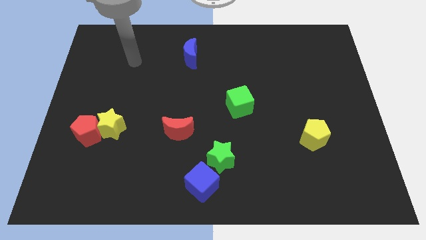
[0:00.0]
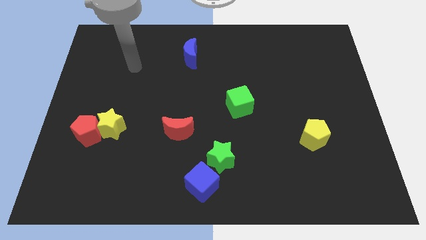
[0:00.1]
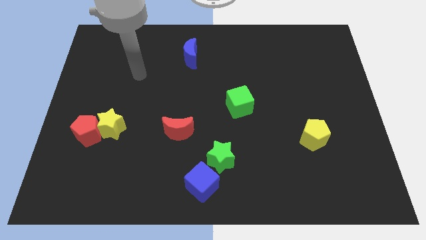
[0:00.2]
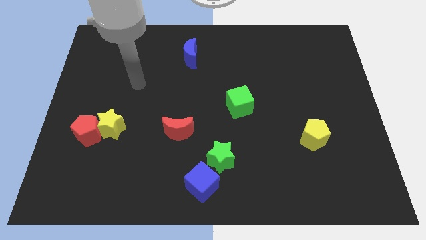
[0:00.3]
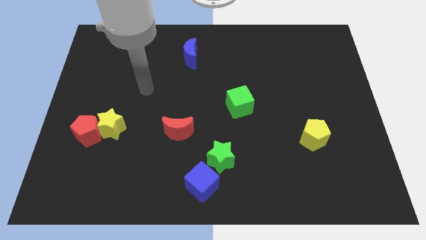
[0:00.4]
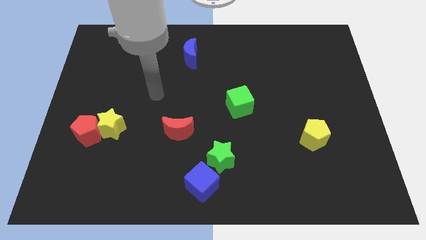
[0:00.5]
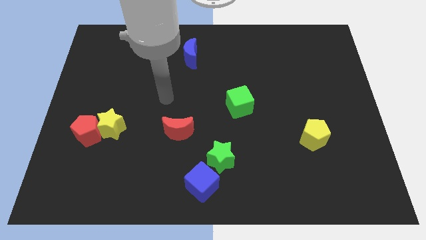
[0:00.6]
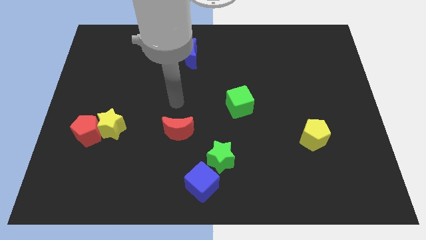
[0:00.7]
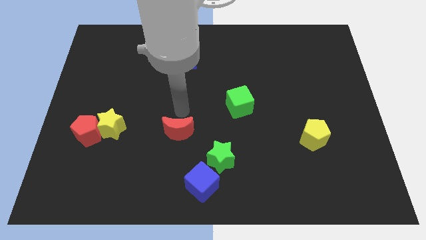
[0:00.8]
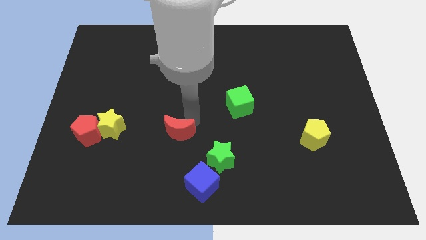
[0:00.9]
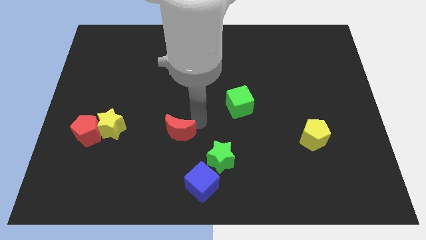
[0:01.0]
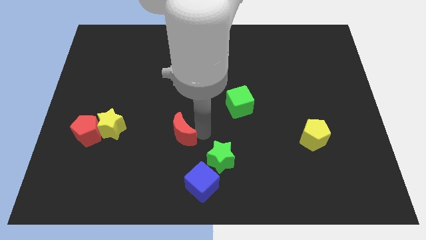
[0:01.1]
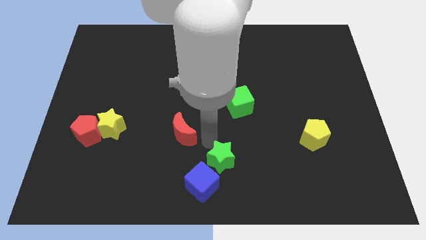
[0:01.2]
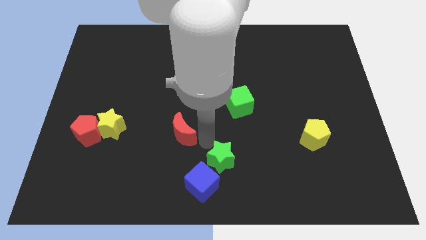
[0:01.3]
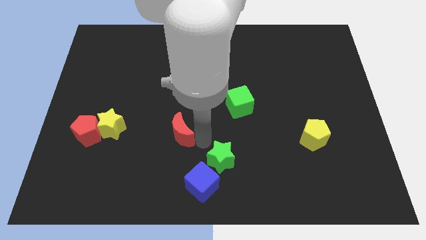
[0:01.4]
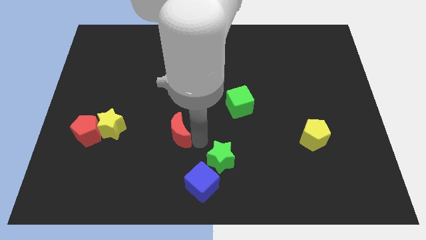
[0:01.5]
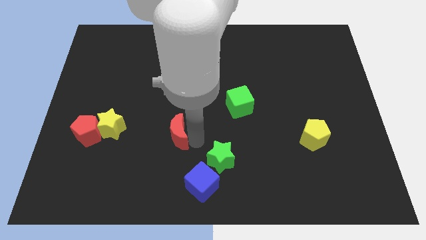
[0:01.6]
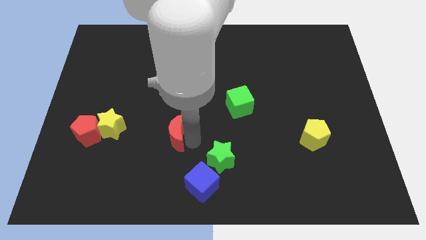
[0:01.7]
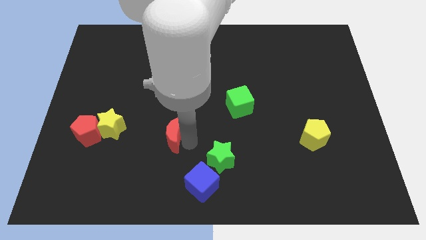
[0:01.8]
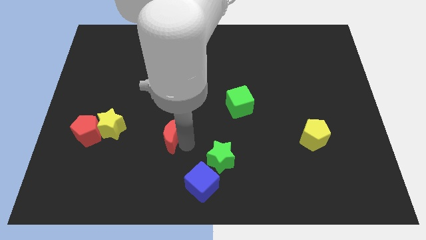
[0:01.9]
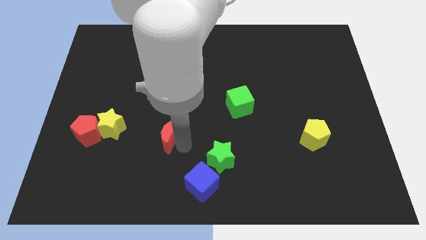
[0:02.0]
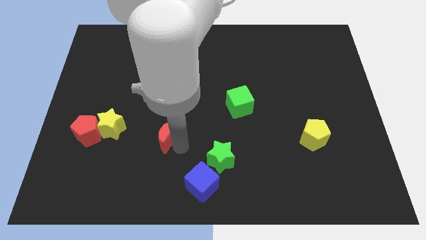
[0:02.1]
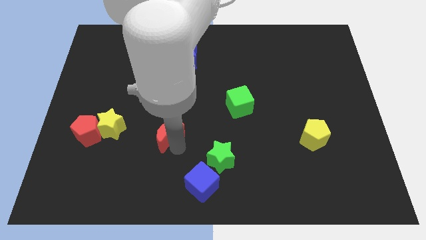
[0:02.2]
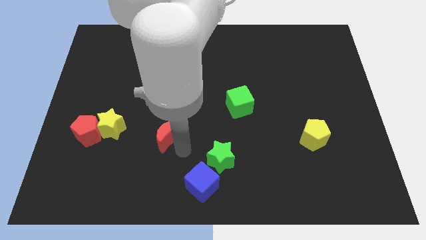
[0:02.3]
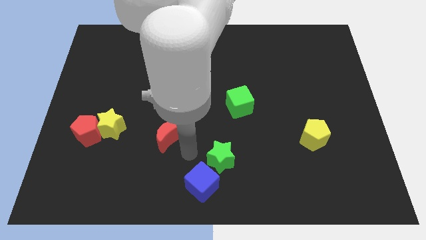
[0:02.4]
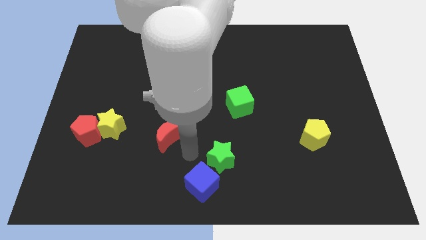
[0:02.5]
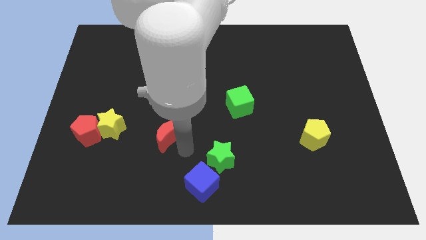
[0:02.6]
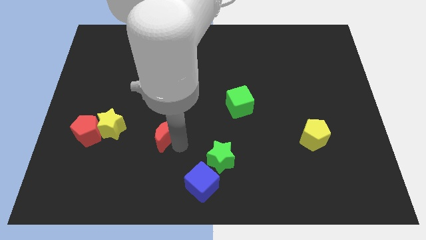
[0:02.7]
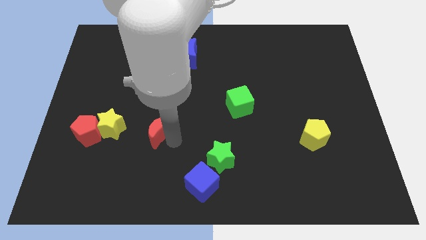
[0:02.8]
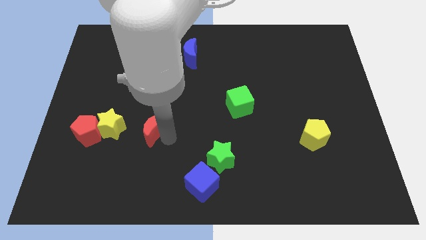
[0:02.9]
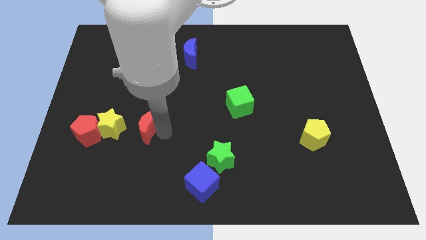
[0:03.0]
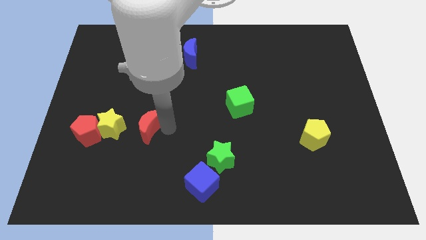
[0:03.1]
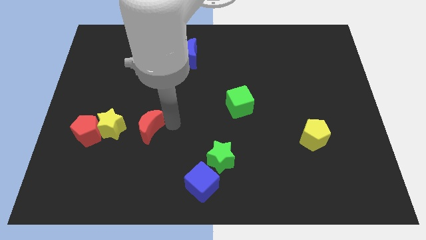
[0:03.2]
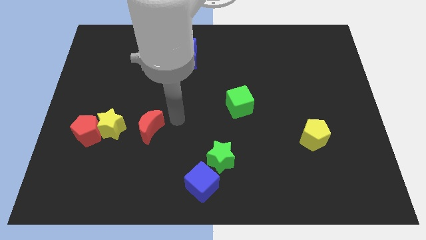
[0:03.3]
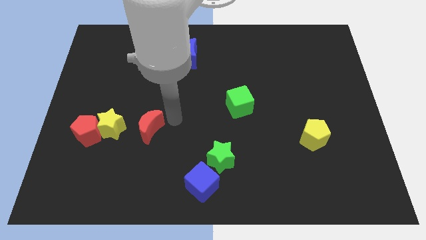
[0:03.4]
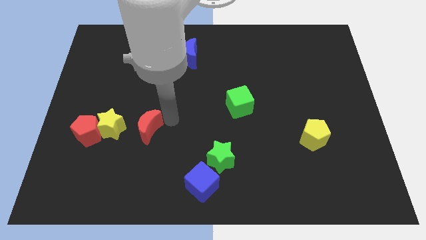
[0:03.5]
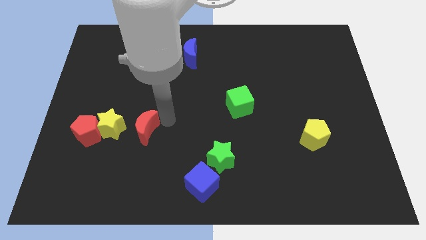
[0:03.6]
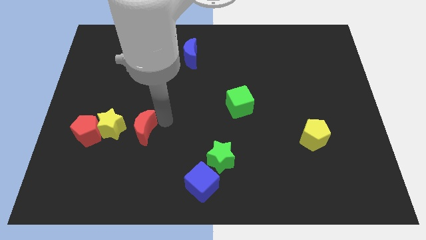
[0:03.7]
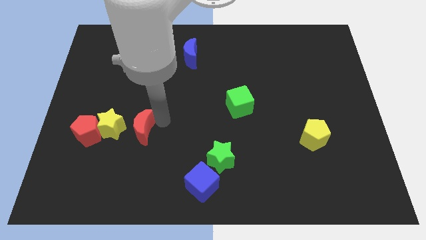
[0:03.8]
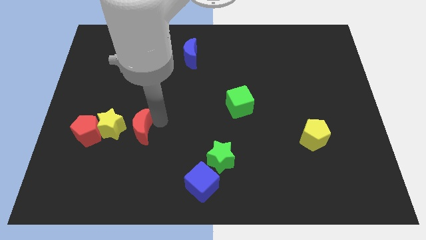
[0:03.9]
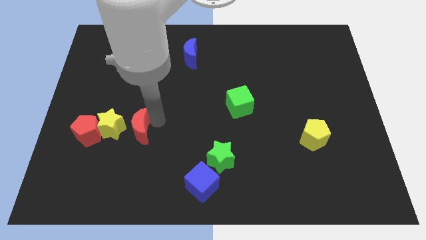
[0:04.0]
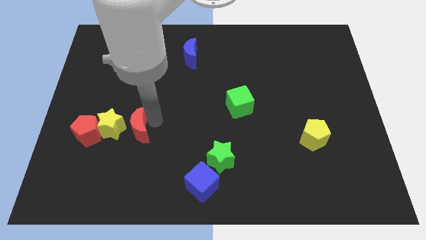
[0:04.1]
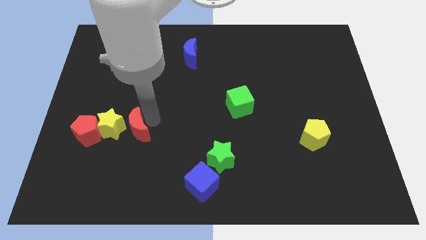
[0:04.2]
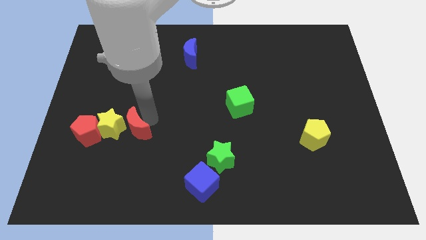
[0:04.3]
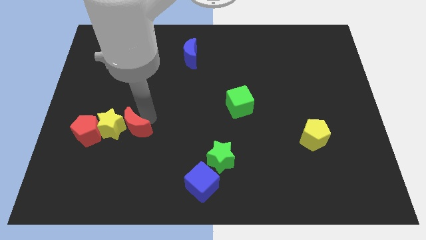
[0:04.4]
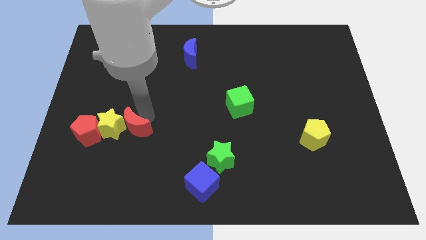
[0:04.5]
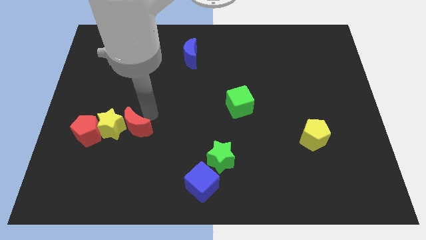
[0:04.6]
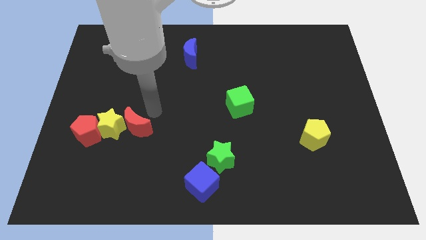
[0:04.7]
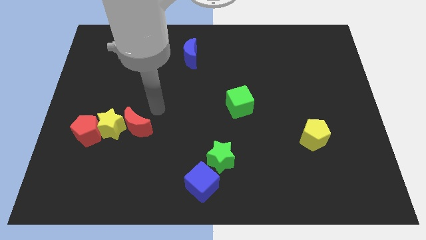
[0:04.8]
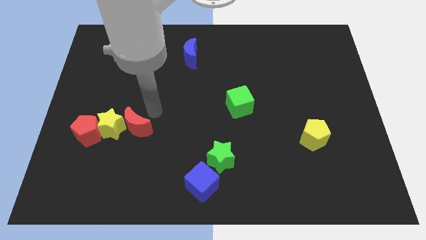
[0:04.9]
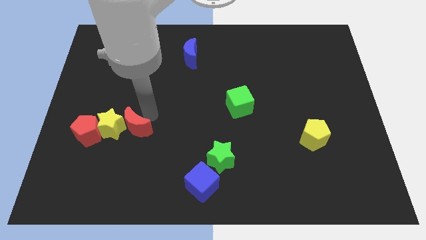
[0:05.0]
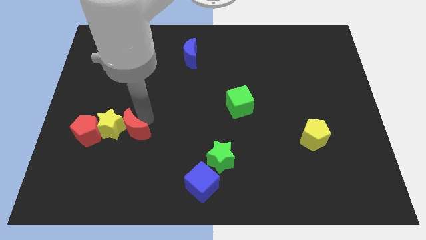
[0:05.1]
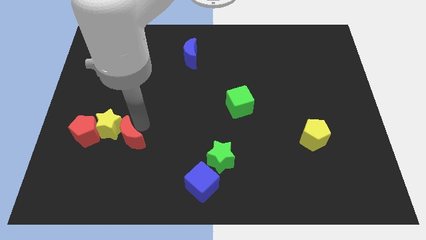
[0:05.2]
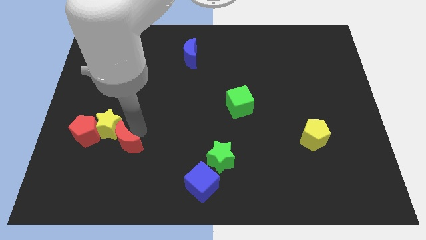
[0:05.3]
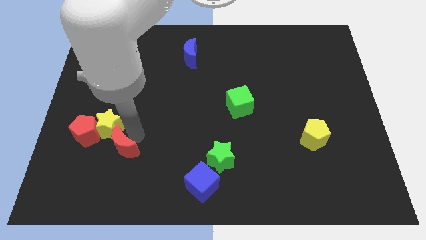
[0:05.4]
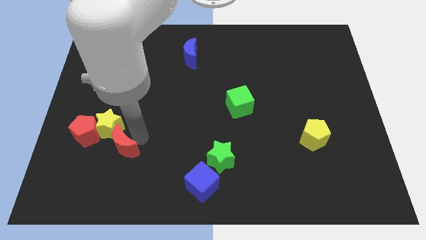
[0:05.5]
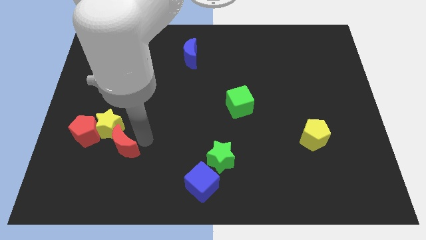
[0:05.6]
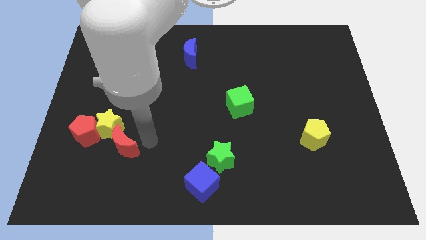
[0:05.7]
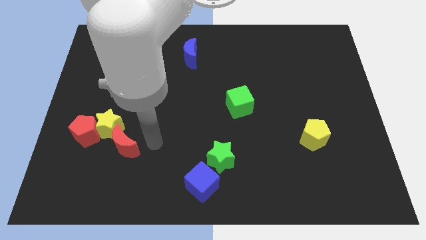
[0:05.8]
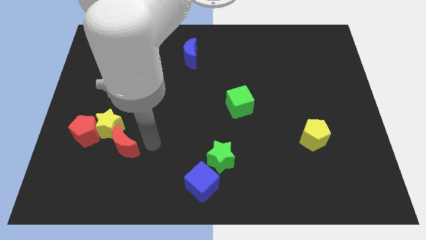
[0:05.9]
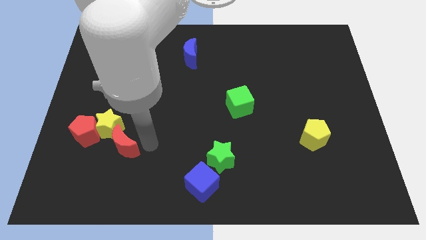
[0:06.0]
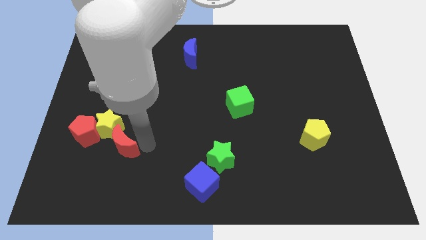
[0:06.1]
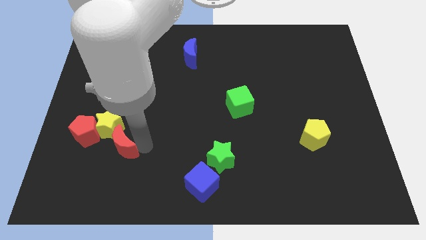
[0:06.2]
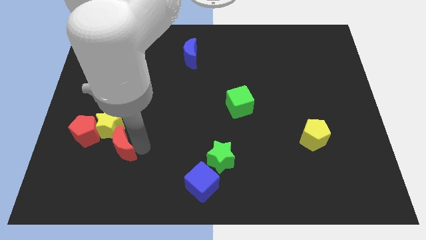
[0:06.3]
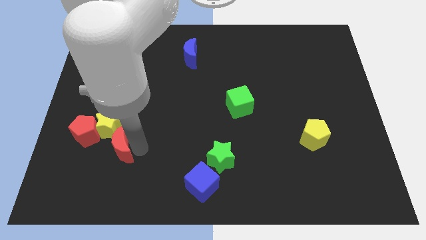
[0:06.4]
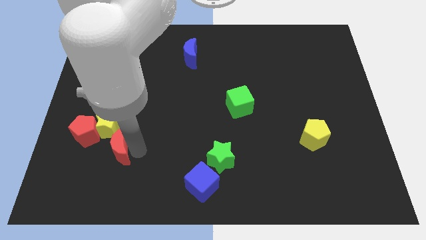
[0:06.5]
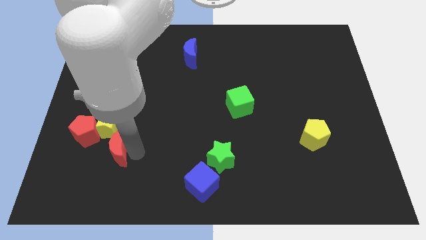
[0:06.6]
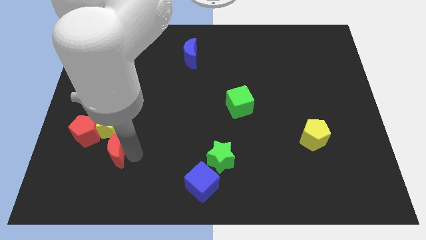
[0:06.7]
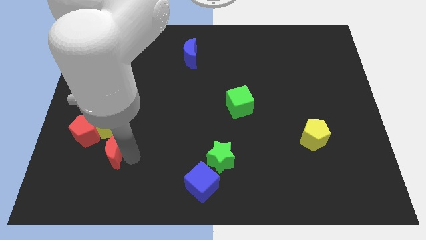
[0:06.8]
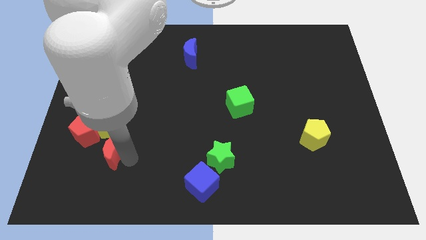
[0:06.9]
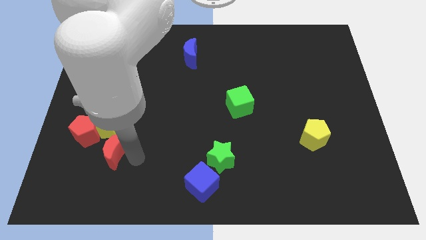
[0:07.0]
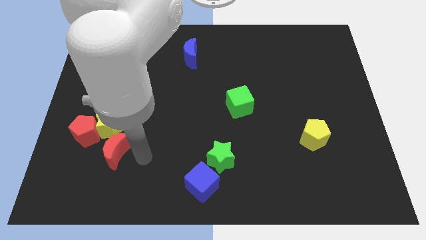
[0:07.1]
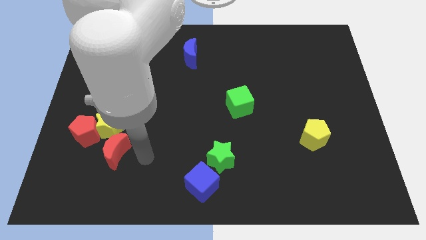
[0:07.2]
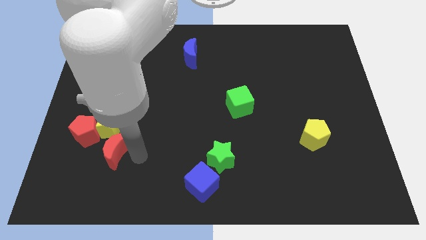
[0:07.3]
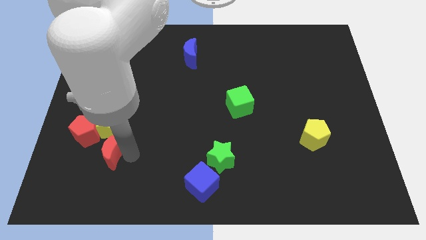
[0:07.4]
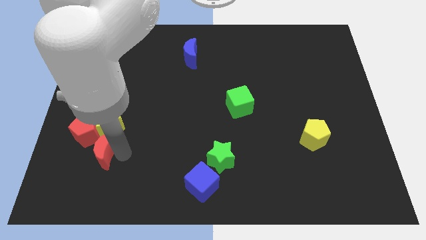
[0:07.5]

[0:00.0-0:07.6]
put the red moon to the bottom left side of the yellow star

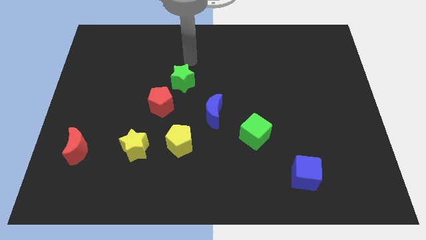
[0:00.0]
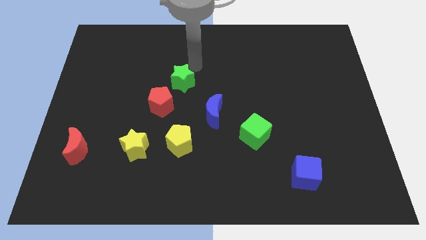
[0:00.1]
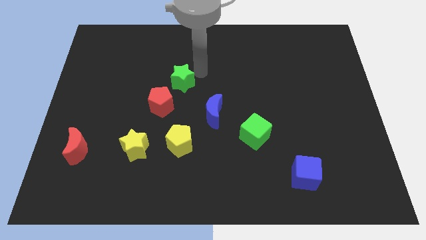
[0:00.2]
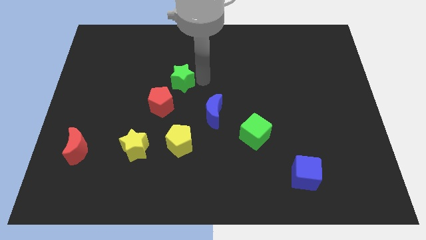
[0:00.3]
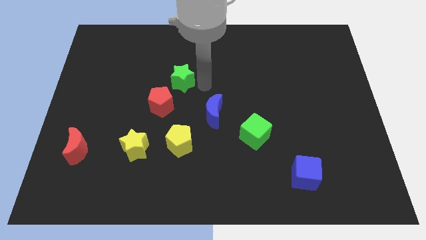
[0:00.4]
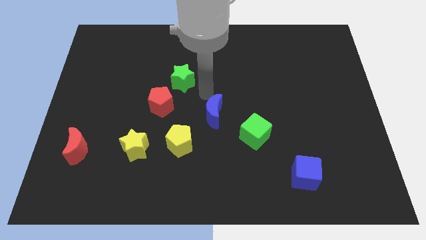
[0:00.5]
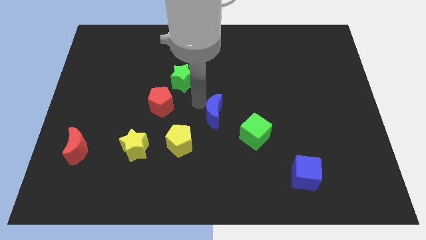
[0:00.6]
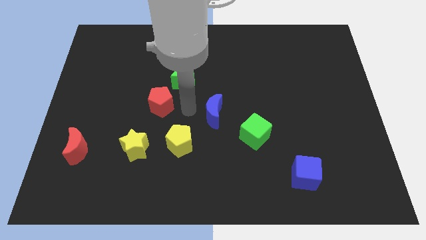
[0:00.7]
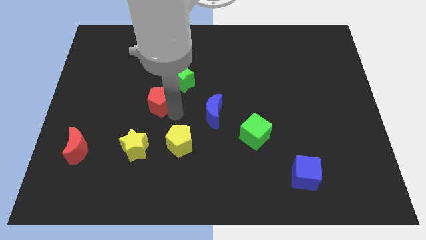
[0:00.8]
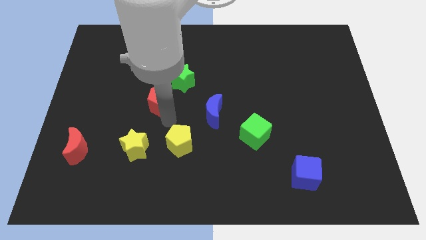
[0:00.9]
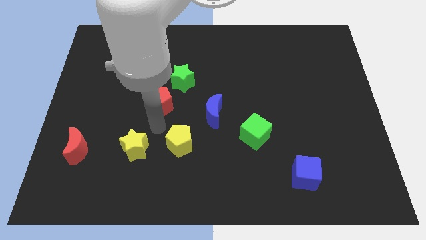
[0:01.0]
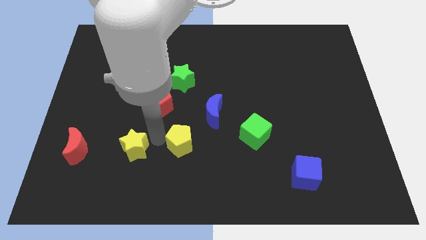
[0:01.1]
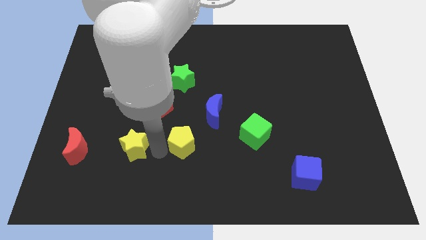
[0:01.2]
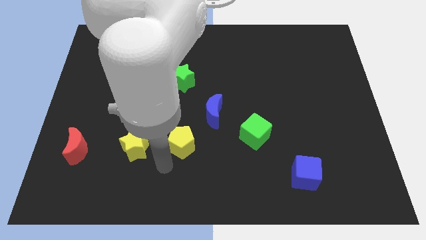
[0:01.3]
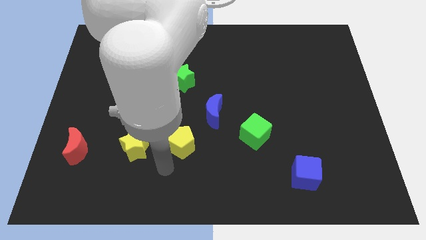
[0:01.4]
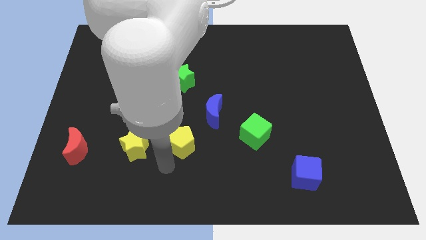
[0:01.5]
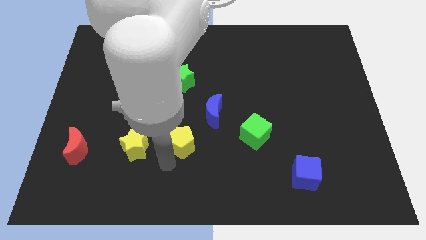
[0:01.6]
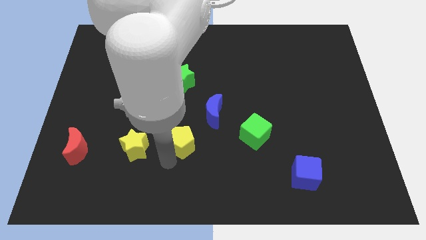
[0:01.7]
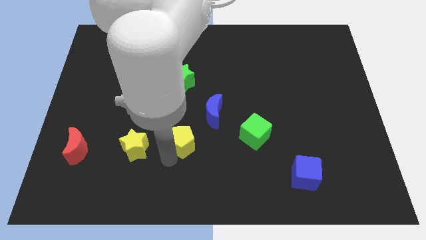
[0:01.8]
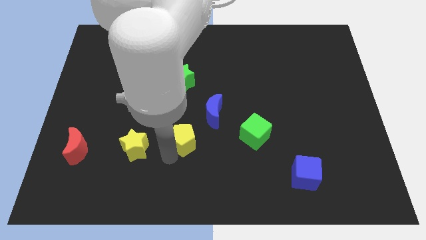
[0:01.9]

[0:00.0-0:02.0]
slide the yellow pentagon to the left of the green cube
